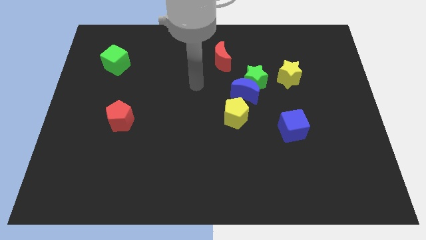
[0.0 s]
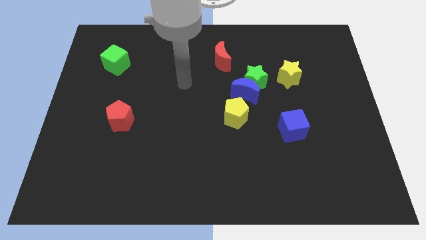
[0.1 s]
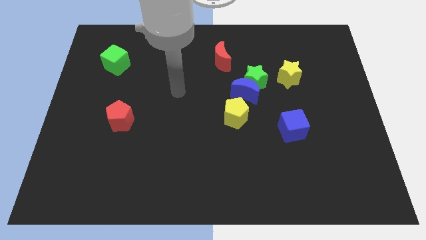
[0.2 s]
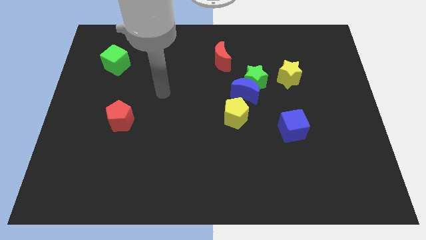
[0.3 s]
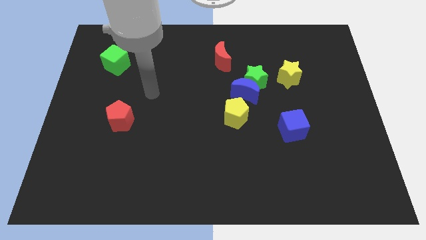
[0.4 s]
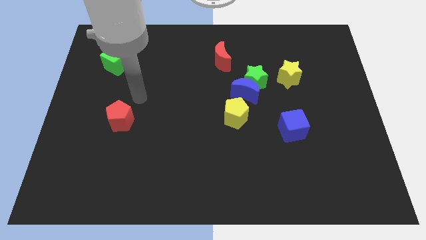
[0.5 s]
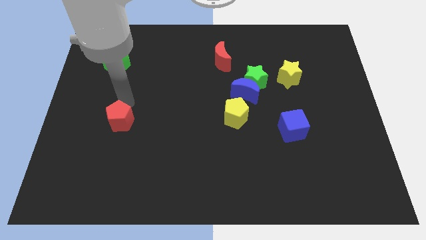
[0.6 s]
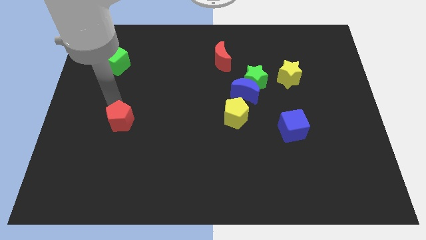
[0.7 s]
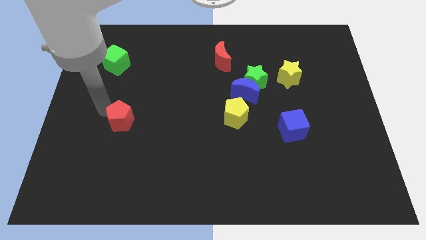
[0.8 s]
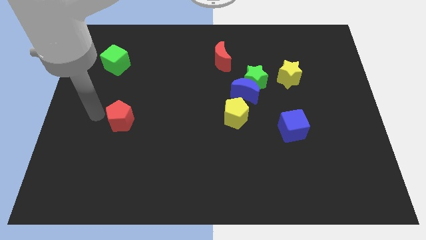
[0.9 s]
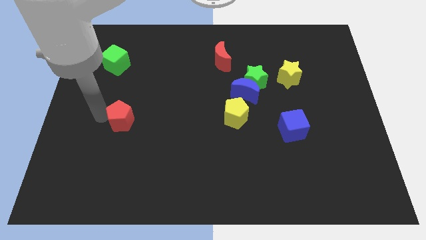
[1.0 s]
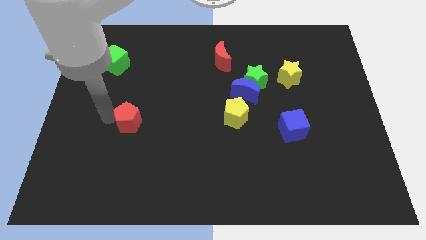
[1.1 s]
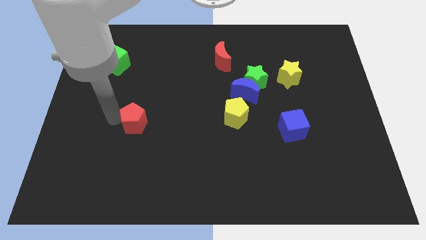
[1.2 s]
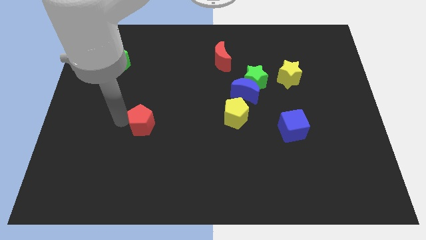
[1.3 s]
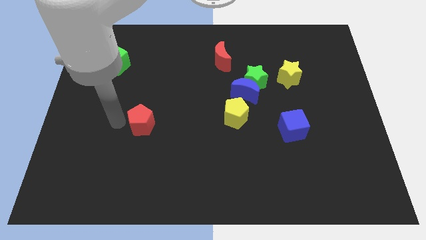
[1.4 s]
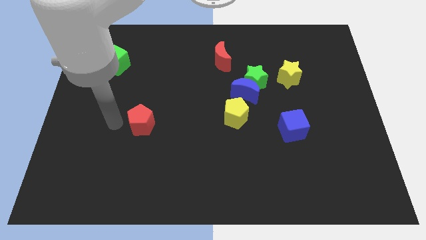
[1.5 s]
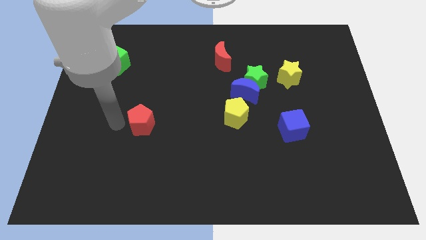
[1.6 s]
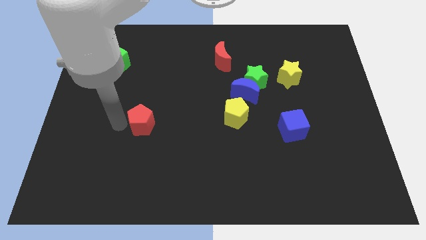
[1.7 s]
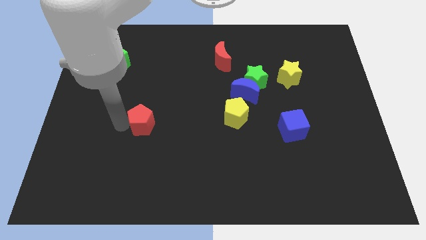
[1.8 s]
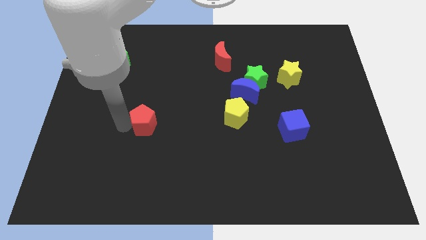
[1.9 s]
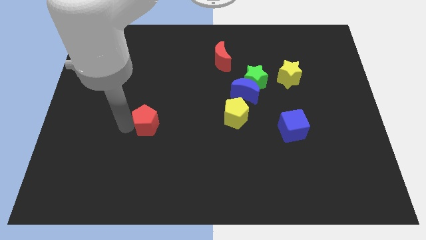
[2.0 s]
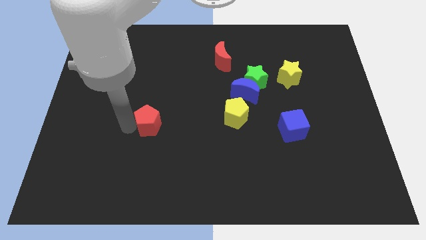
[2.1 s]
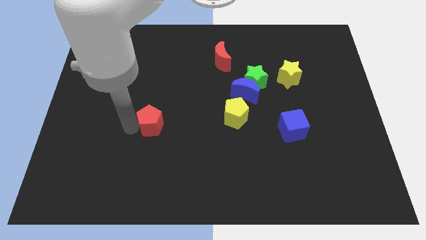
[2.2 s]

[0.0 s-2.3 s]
move the red pentagon to the right slightly

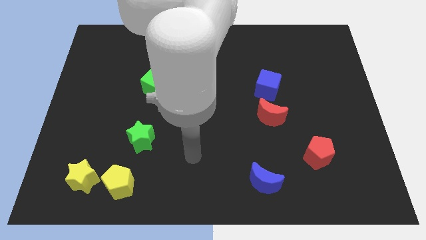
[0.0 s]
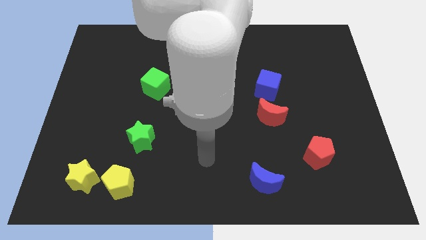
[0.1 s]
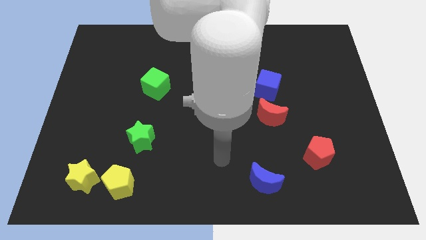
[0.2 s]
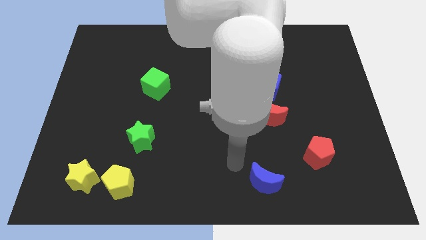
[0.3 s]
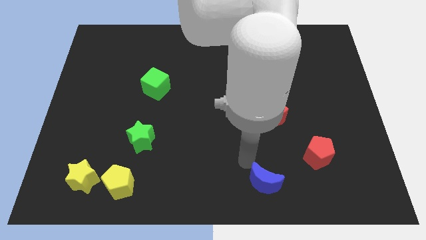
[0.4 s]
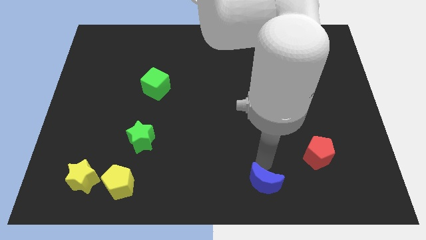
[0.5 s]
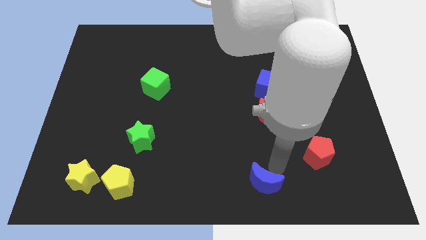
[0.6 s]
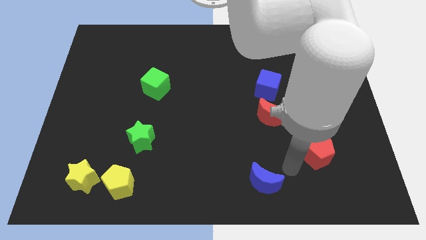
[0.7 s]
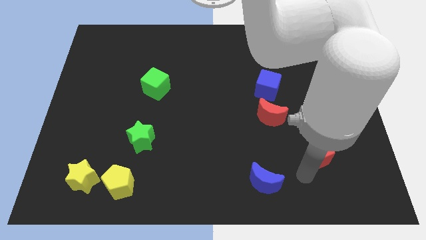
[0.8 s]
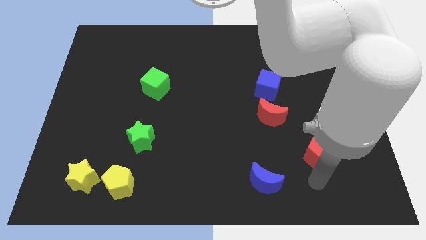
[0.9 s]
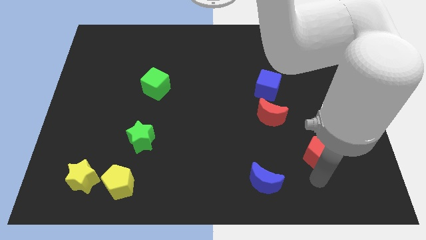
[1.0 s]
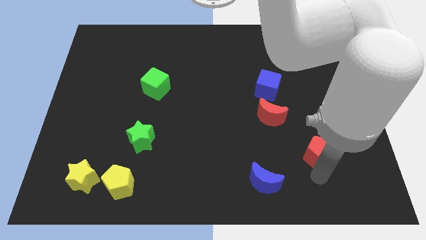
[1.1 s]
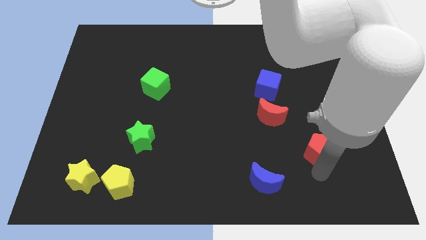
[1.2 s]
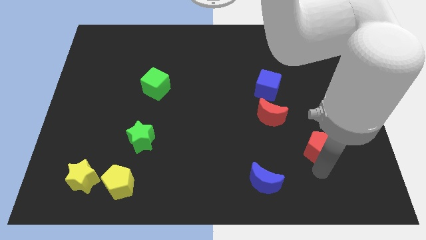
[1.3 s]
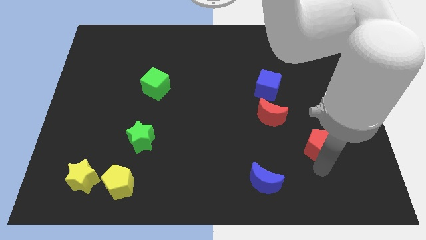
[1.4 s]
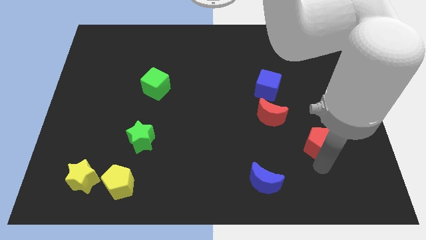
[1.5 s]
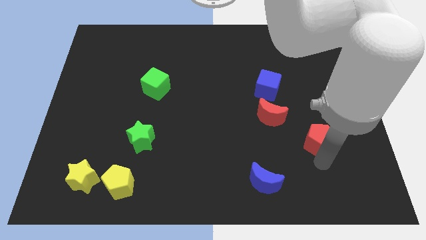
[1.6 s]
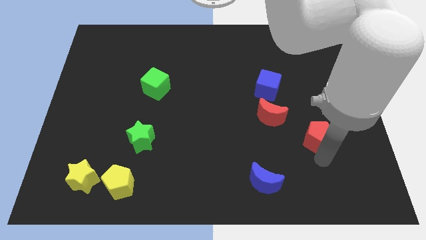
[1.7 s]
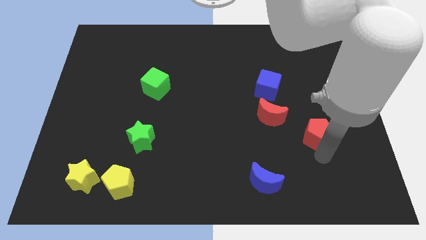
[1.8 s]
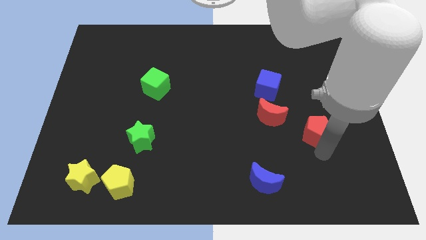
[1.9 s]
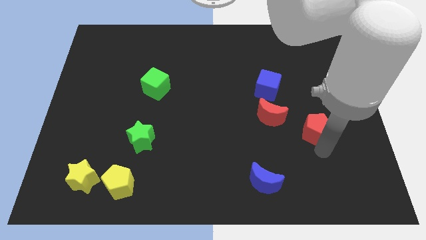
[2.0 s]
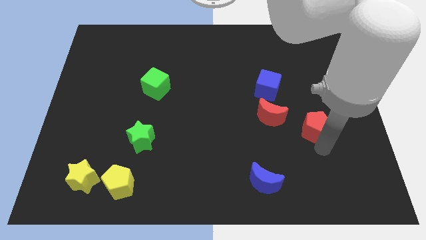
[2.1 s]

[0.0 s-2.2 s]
move the red pentagon a little upwards

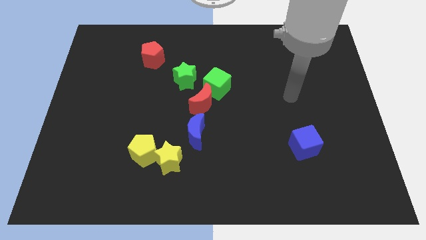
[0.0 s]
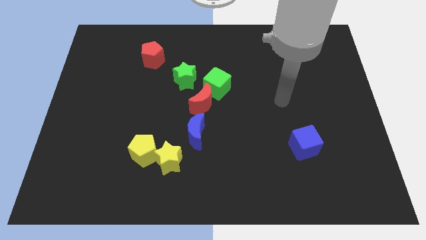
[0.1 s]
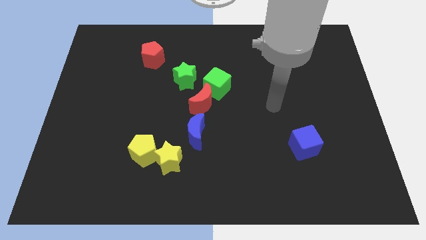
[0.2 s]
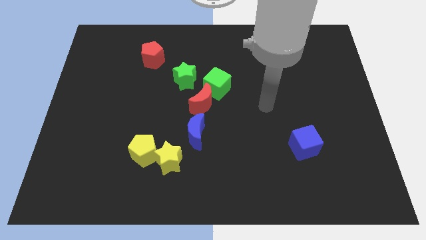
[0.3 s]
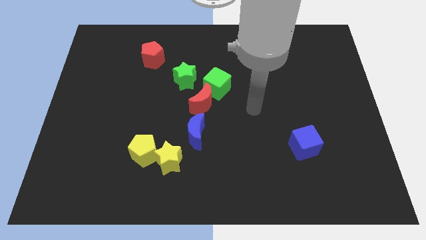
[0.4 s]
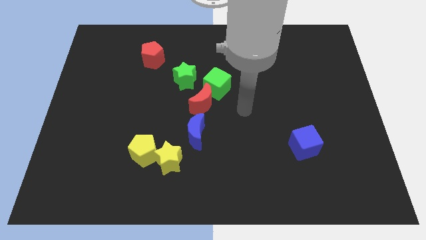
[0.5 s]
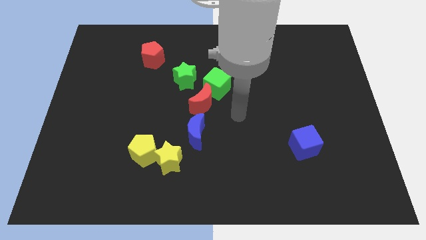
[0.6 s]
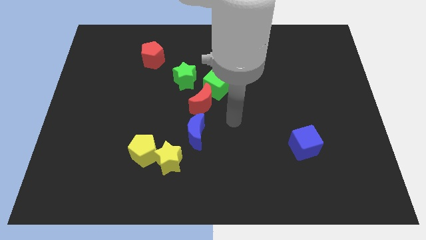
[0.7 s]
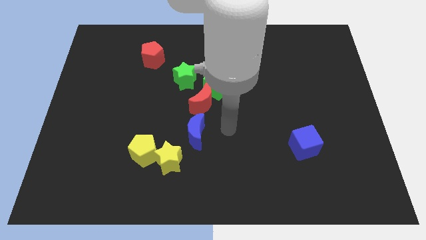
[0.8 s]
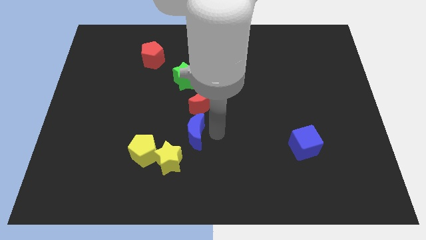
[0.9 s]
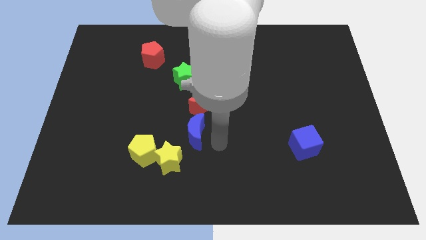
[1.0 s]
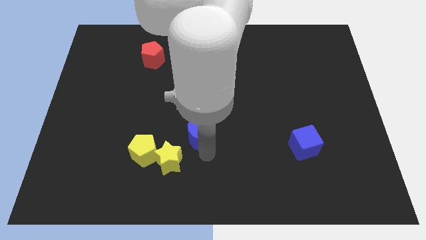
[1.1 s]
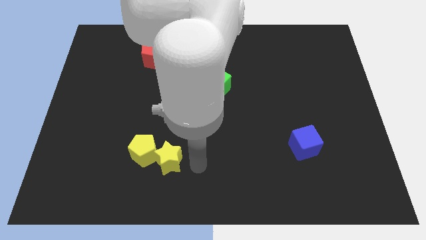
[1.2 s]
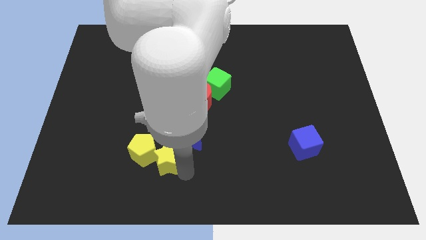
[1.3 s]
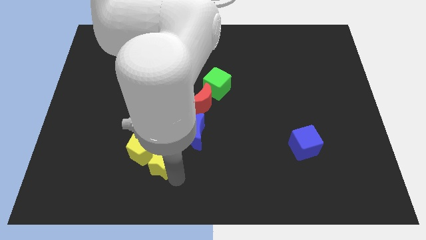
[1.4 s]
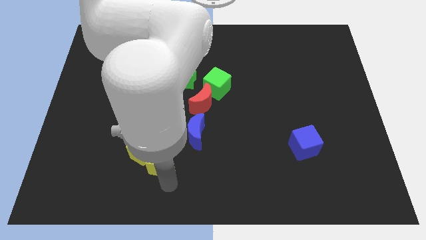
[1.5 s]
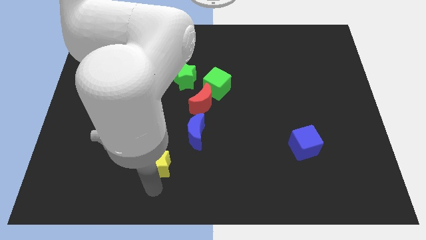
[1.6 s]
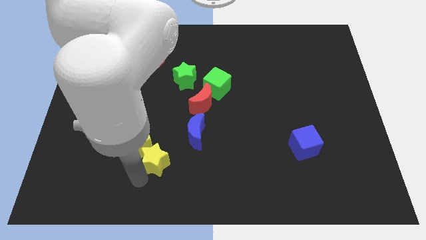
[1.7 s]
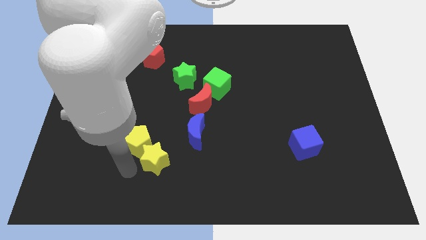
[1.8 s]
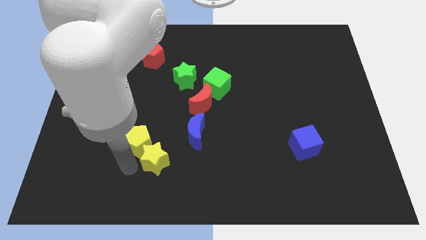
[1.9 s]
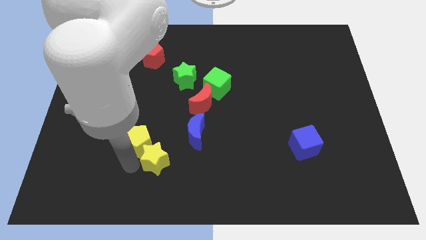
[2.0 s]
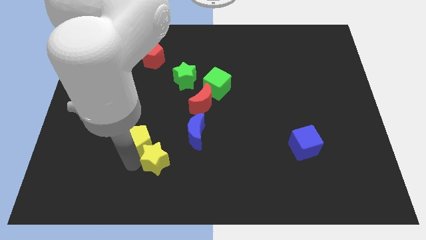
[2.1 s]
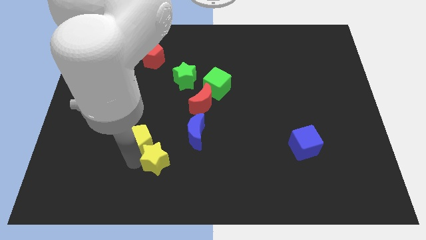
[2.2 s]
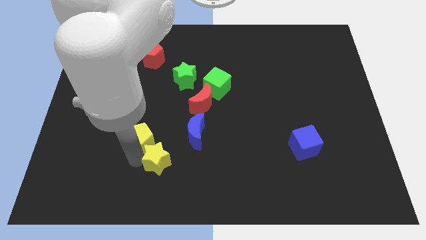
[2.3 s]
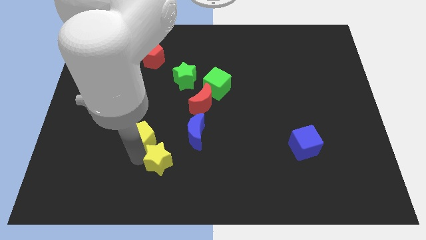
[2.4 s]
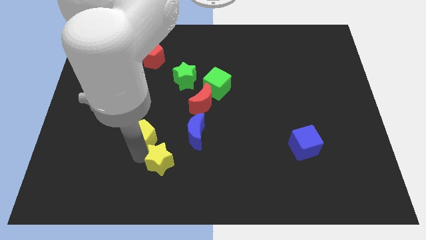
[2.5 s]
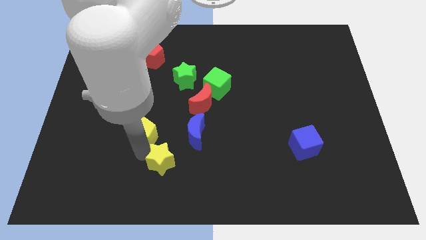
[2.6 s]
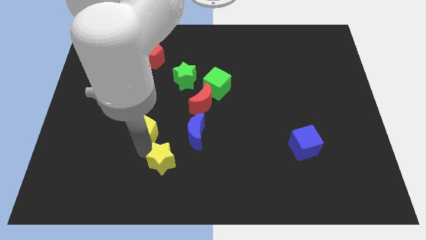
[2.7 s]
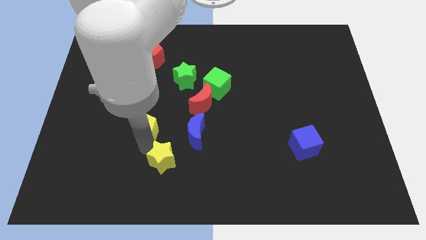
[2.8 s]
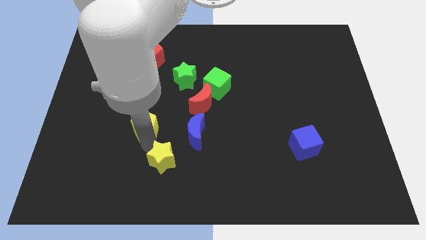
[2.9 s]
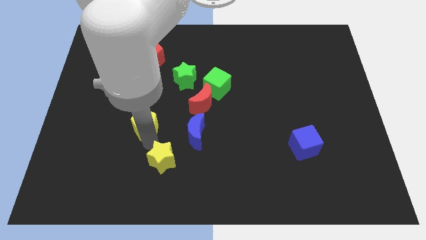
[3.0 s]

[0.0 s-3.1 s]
slightly slide the yellow pentagon up

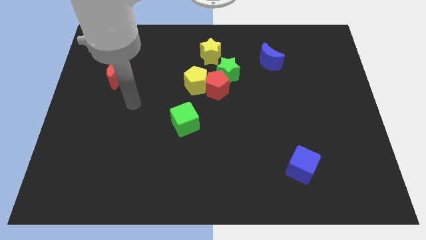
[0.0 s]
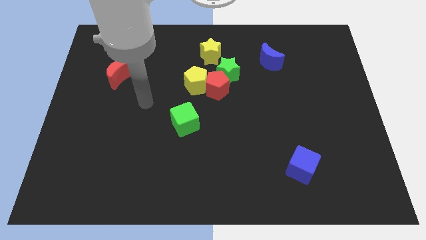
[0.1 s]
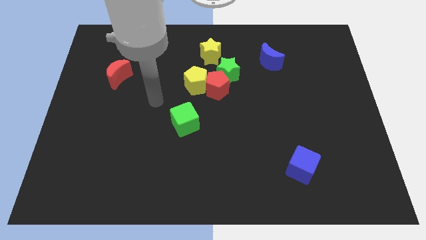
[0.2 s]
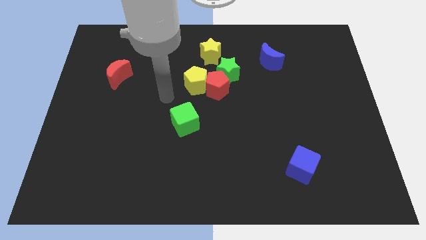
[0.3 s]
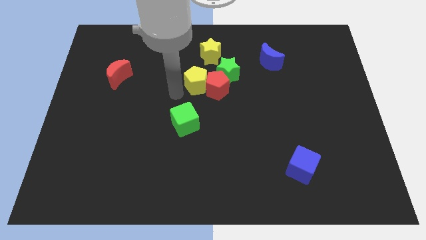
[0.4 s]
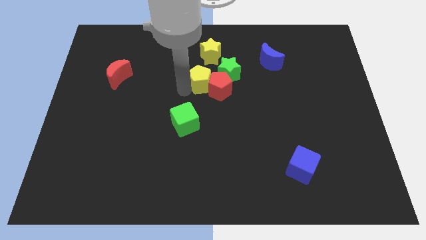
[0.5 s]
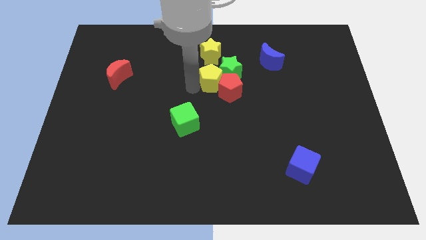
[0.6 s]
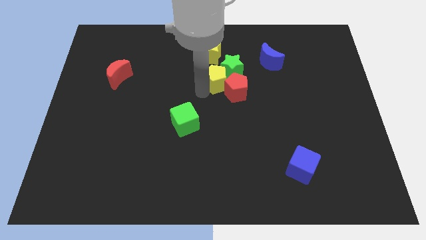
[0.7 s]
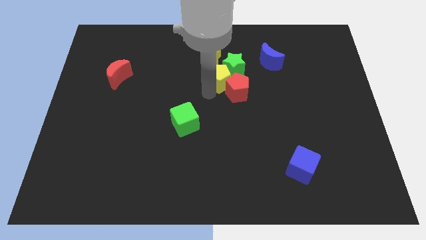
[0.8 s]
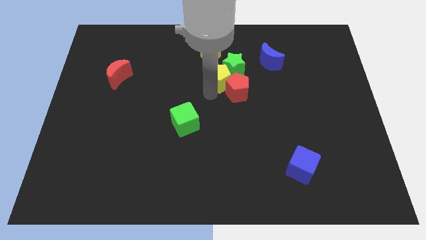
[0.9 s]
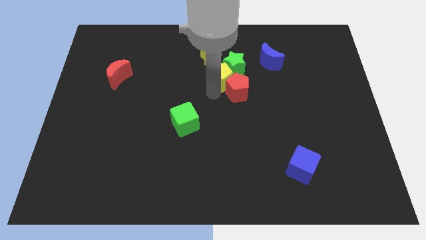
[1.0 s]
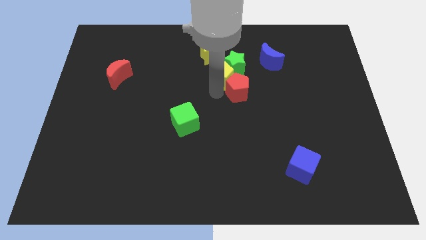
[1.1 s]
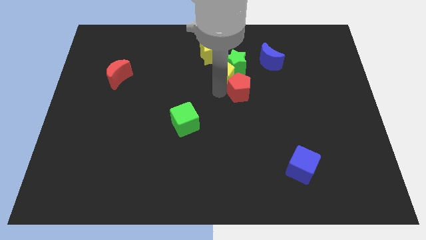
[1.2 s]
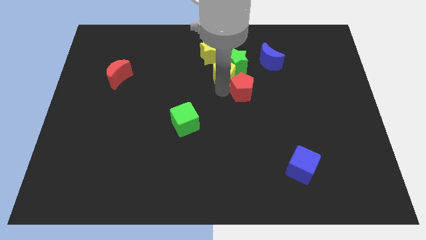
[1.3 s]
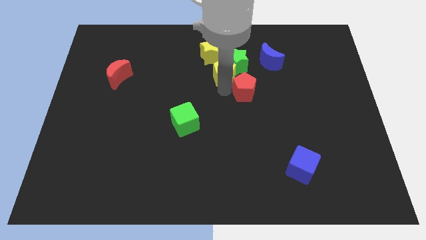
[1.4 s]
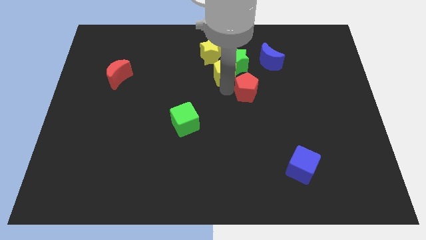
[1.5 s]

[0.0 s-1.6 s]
slightly move the red pentagon to the right
